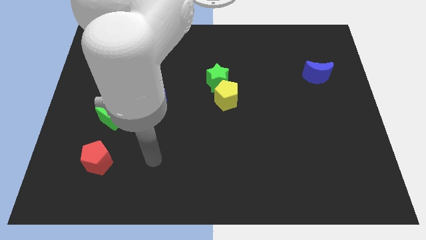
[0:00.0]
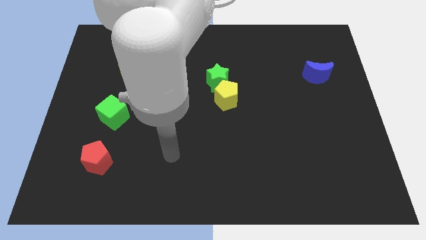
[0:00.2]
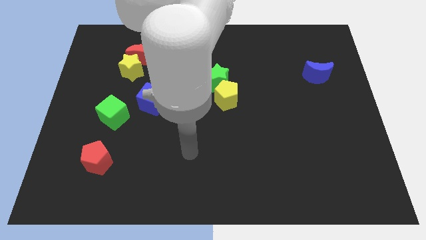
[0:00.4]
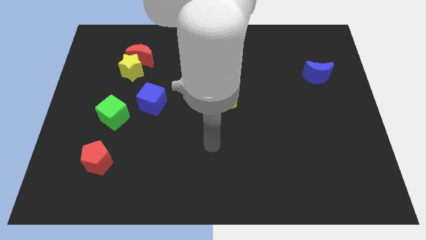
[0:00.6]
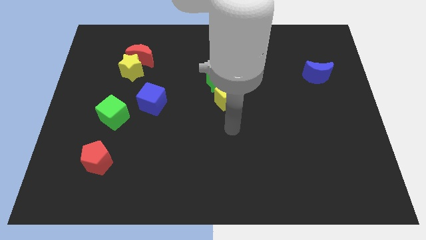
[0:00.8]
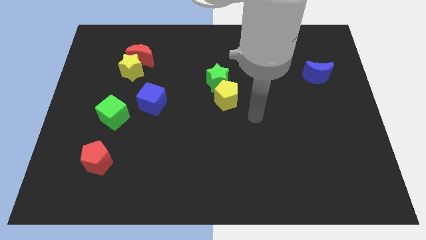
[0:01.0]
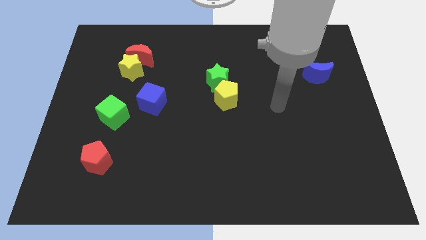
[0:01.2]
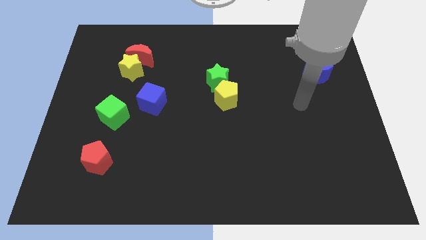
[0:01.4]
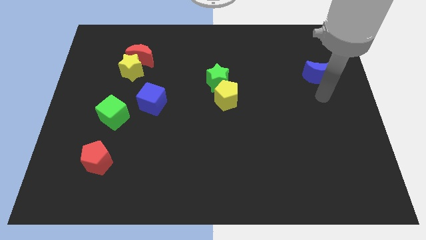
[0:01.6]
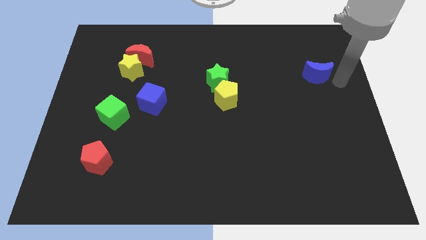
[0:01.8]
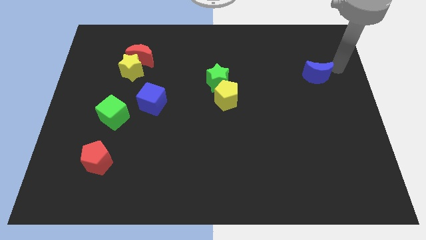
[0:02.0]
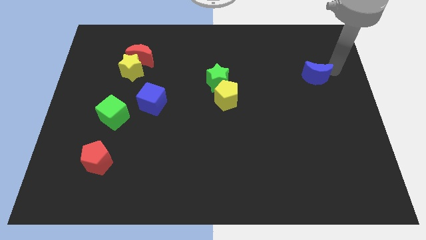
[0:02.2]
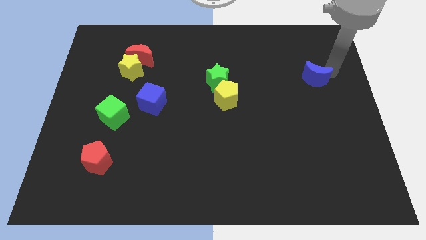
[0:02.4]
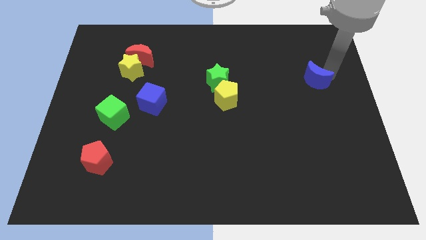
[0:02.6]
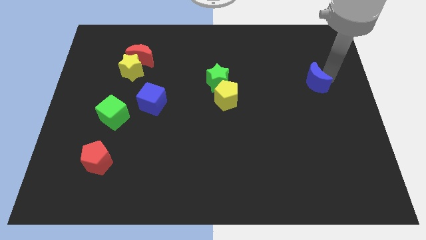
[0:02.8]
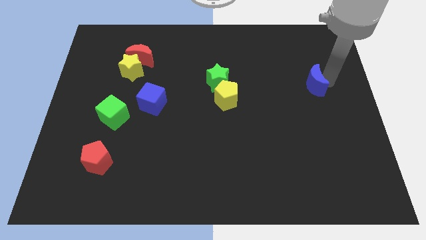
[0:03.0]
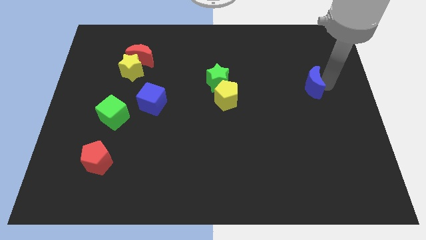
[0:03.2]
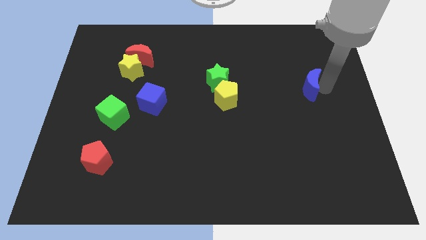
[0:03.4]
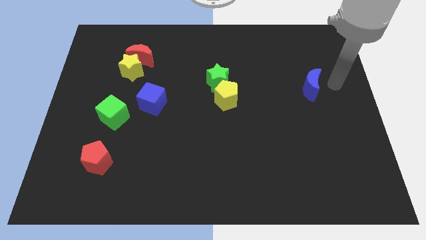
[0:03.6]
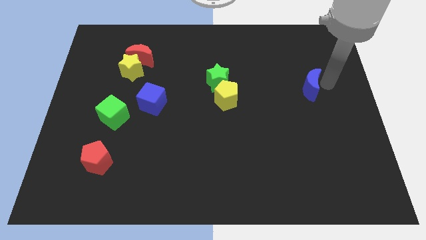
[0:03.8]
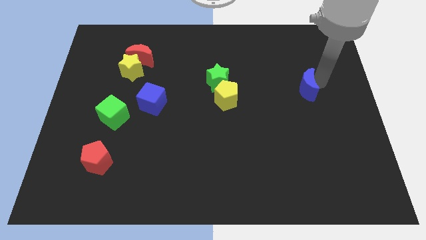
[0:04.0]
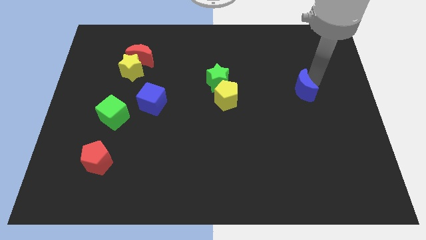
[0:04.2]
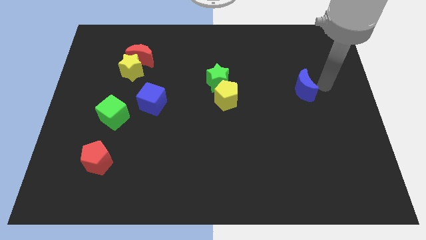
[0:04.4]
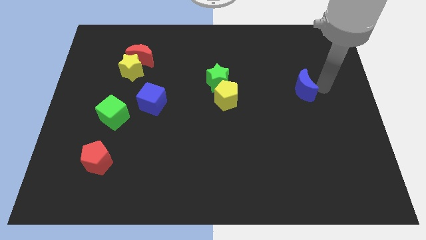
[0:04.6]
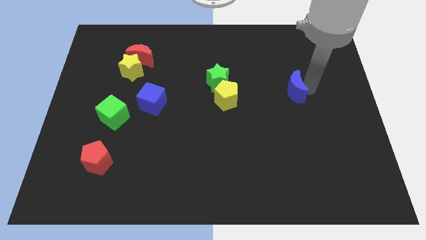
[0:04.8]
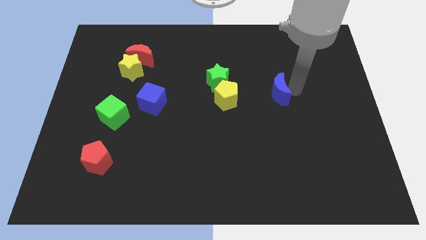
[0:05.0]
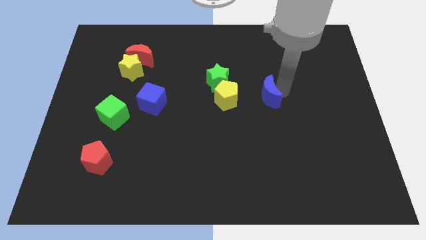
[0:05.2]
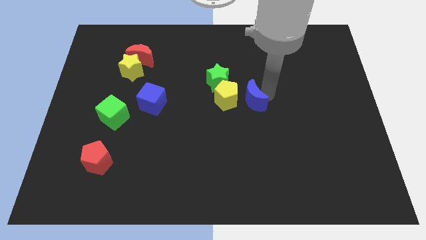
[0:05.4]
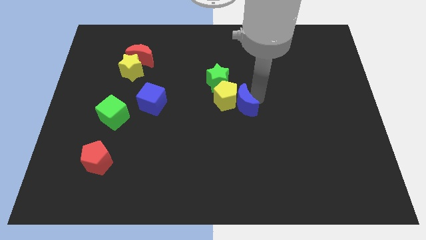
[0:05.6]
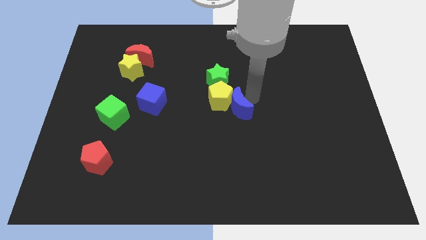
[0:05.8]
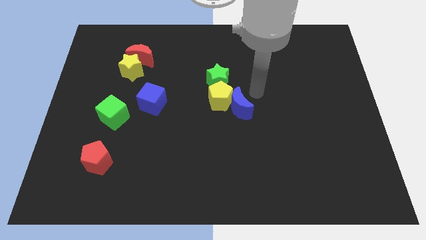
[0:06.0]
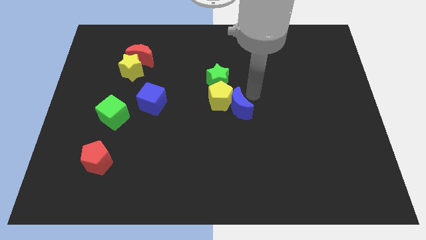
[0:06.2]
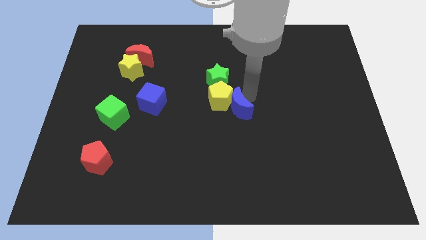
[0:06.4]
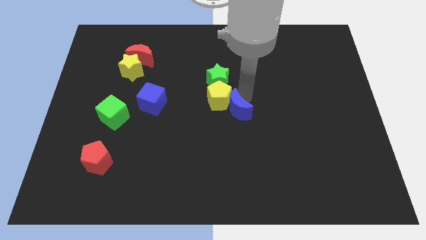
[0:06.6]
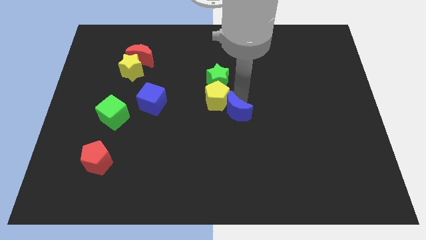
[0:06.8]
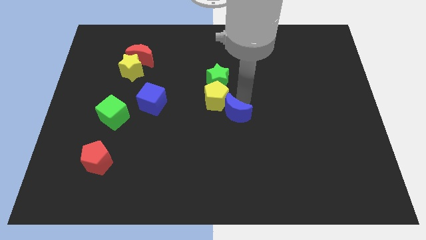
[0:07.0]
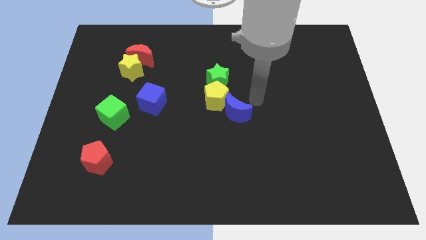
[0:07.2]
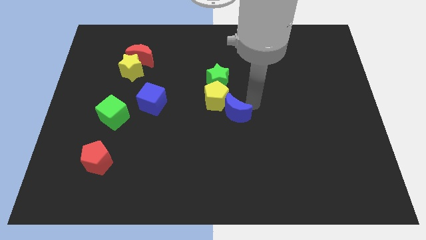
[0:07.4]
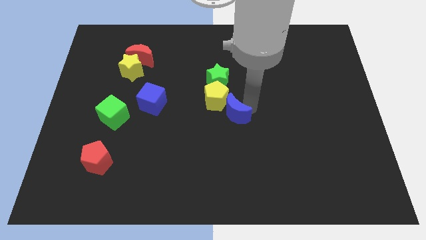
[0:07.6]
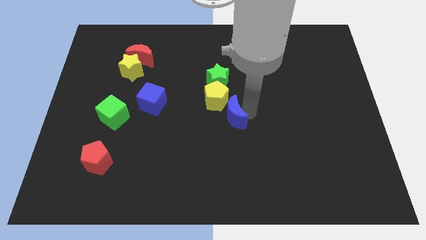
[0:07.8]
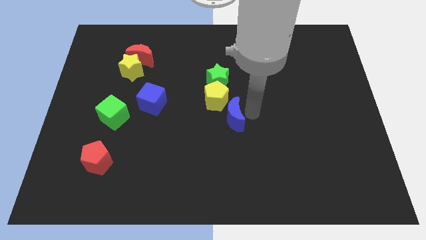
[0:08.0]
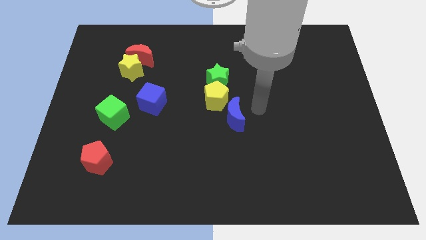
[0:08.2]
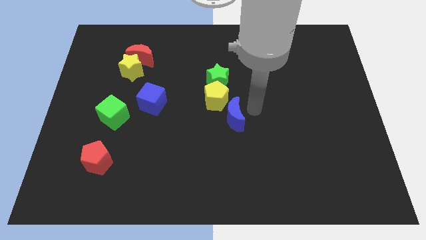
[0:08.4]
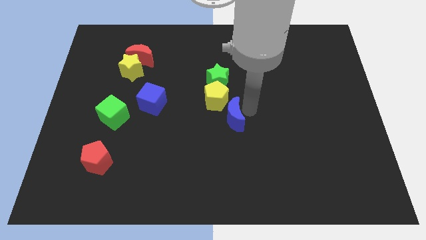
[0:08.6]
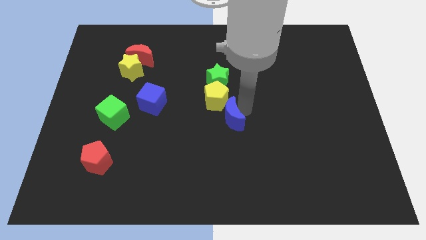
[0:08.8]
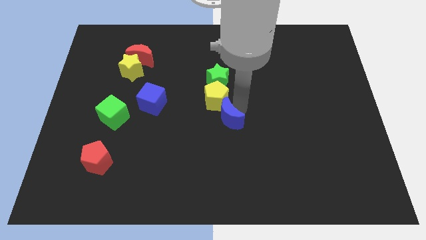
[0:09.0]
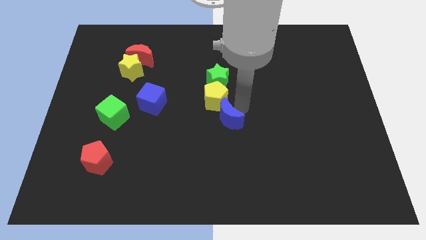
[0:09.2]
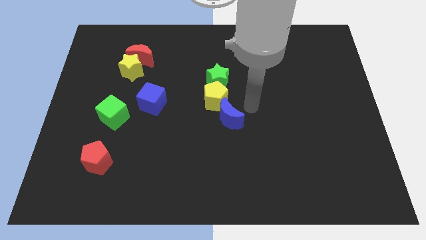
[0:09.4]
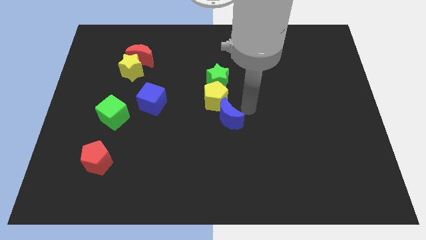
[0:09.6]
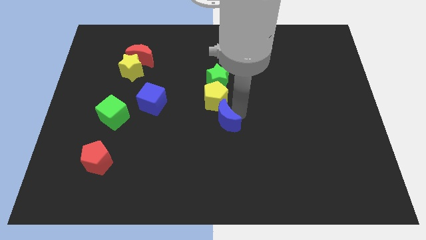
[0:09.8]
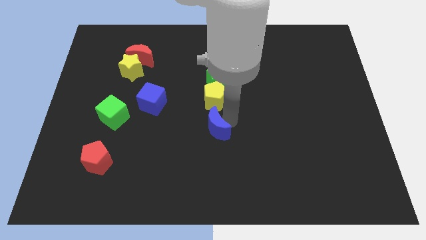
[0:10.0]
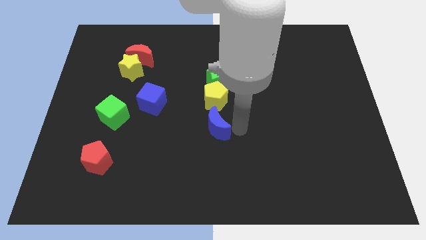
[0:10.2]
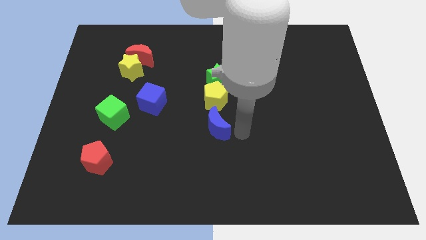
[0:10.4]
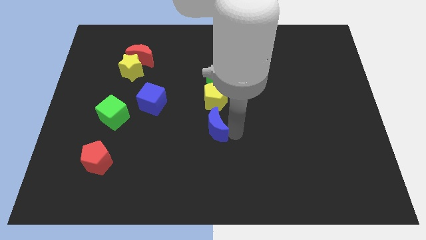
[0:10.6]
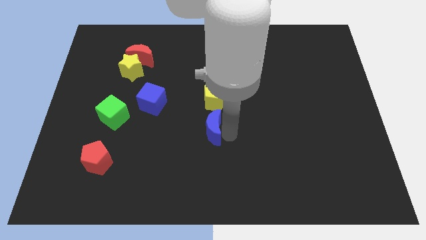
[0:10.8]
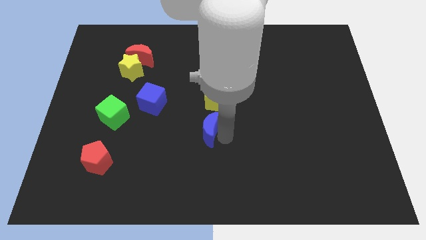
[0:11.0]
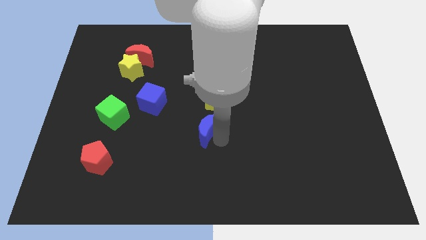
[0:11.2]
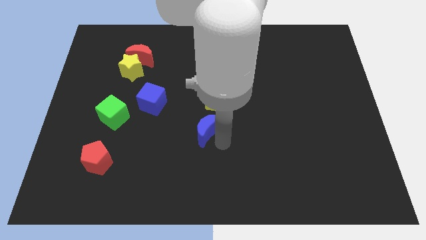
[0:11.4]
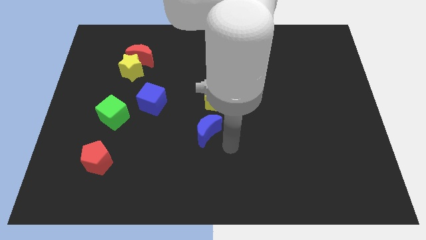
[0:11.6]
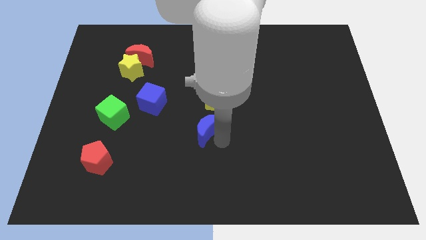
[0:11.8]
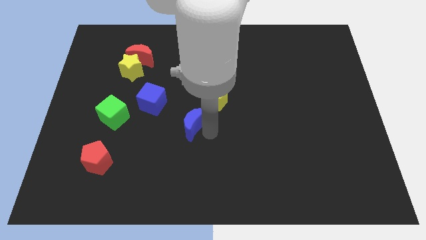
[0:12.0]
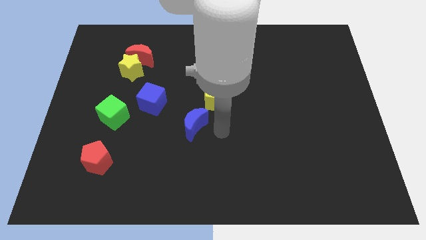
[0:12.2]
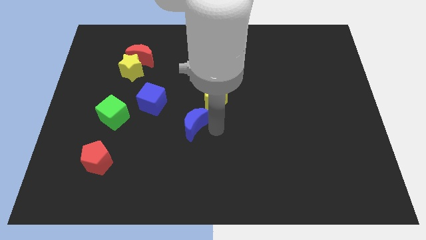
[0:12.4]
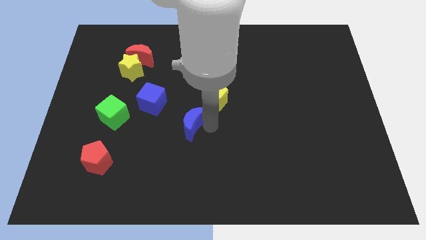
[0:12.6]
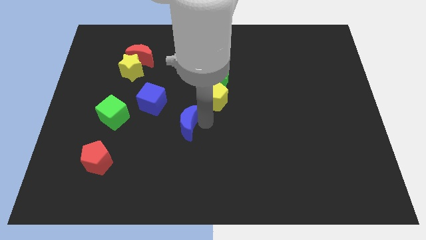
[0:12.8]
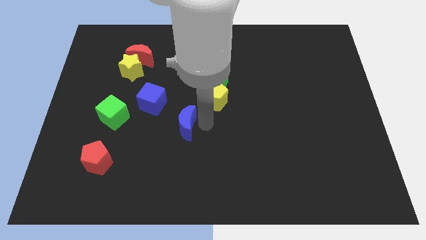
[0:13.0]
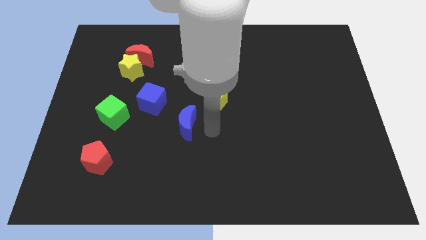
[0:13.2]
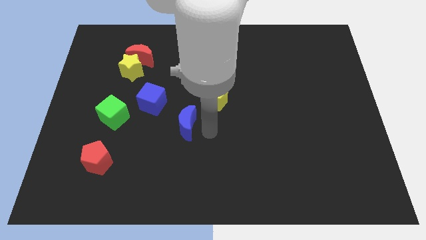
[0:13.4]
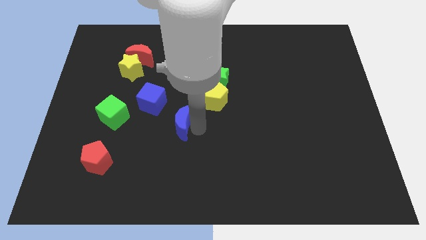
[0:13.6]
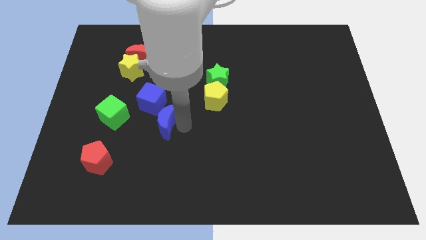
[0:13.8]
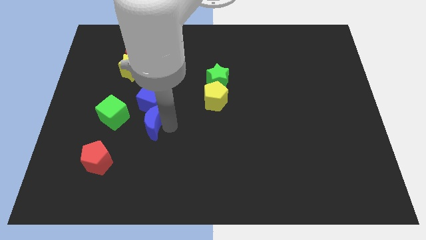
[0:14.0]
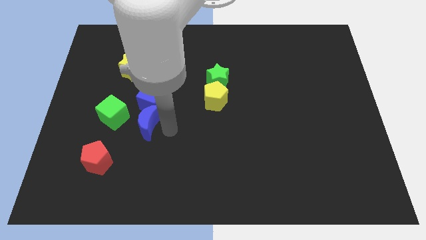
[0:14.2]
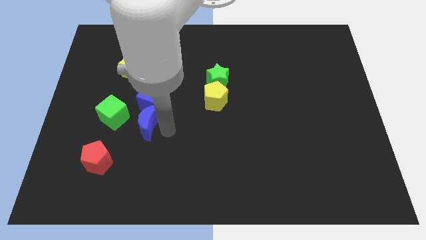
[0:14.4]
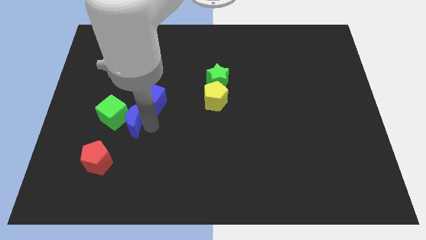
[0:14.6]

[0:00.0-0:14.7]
push the blue moon next to the green cube
